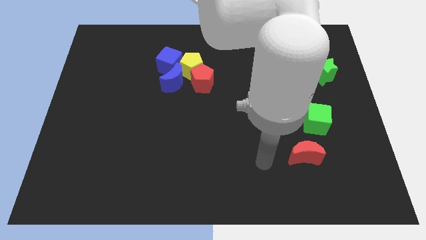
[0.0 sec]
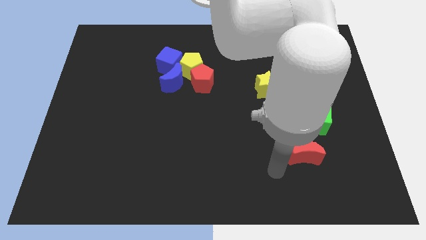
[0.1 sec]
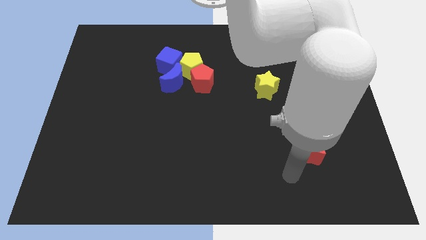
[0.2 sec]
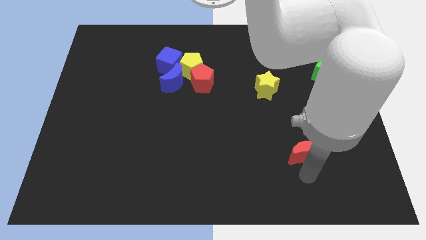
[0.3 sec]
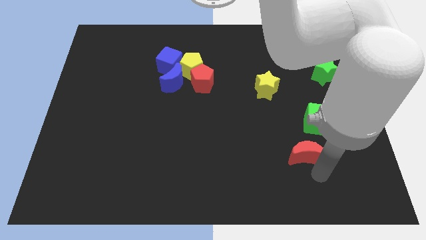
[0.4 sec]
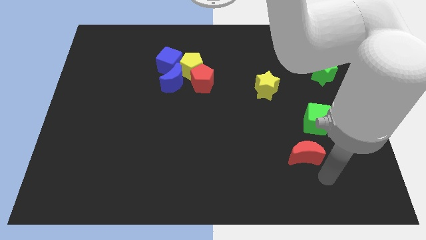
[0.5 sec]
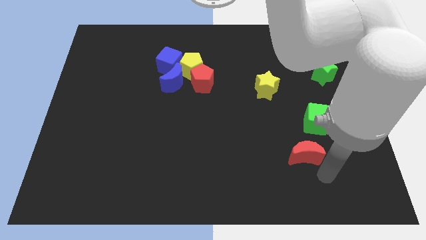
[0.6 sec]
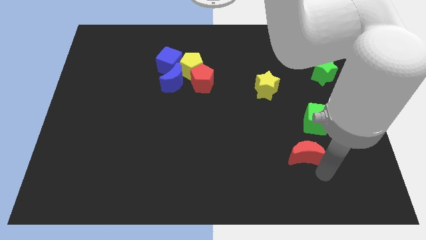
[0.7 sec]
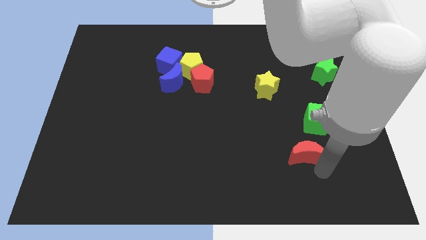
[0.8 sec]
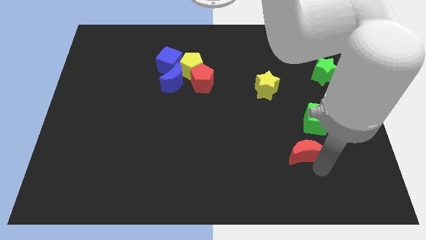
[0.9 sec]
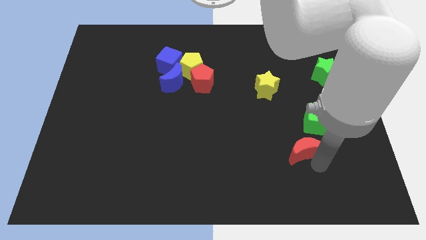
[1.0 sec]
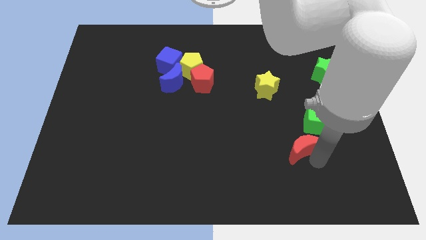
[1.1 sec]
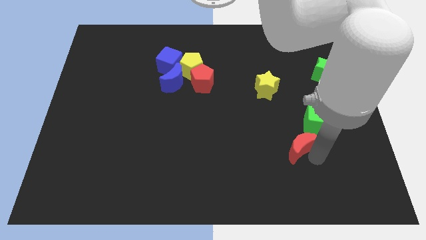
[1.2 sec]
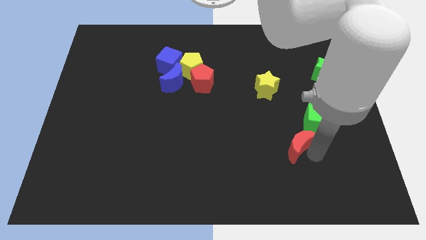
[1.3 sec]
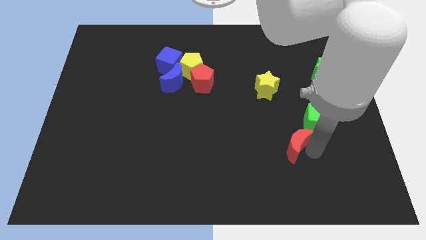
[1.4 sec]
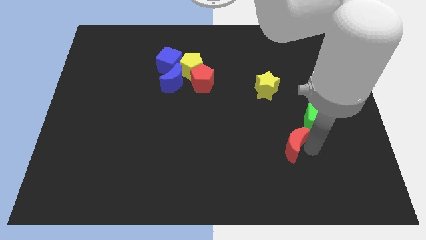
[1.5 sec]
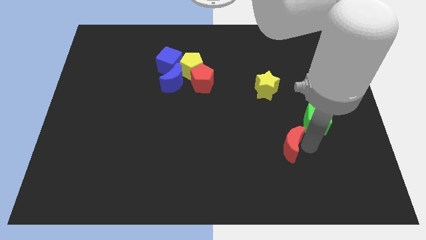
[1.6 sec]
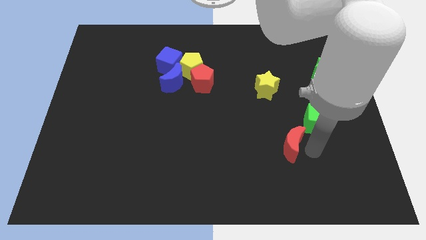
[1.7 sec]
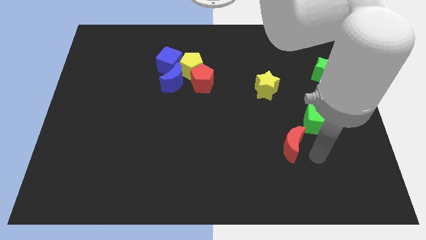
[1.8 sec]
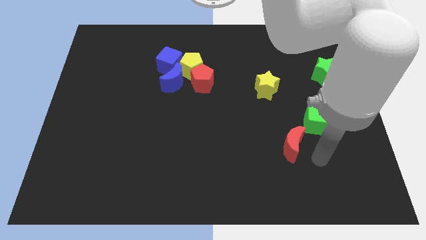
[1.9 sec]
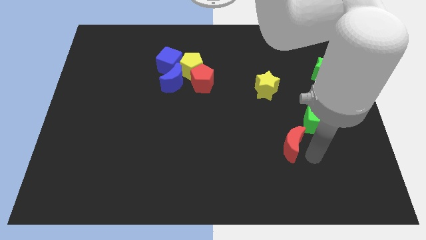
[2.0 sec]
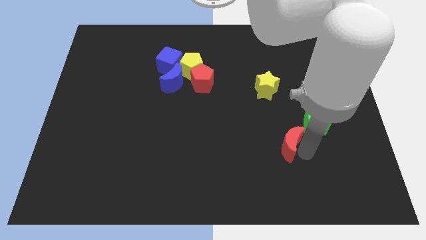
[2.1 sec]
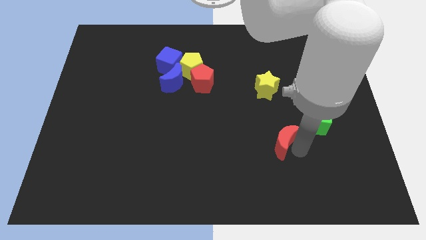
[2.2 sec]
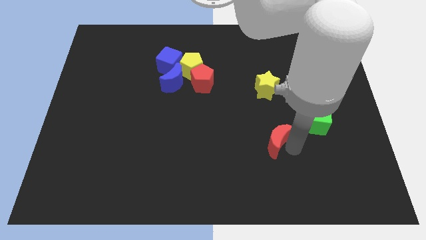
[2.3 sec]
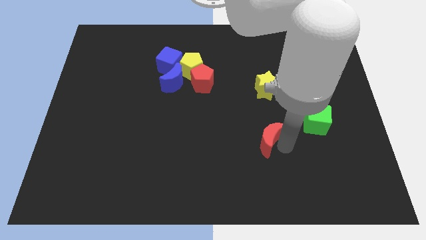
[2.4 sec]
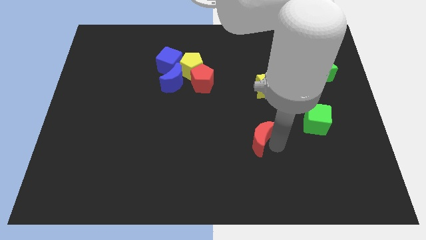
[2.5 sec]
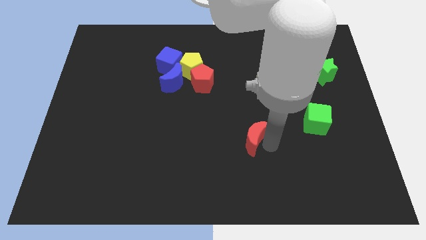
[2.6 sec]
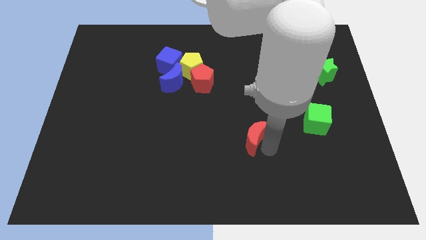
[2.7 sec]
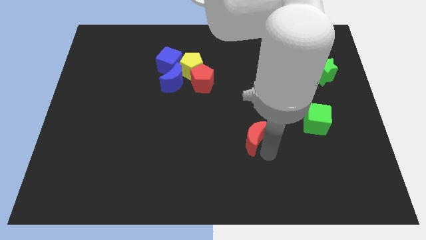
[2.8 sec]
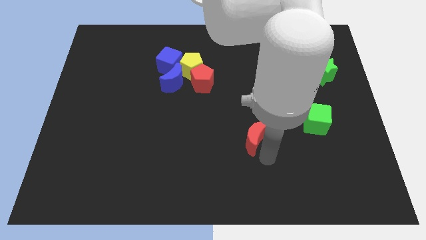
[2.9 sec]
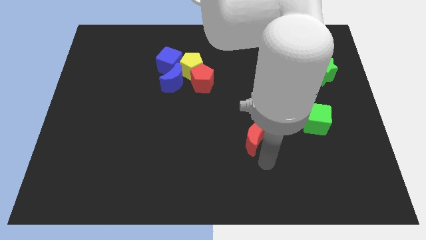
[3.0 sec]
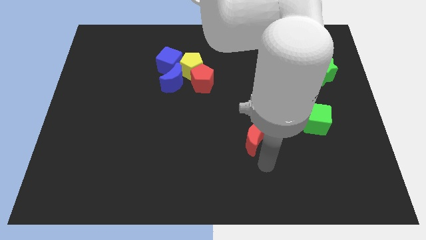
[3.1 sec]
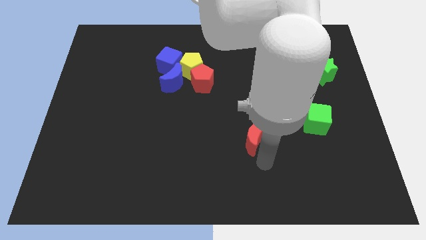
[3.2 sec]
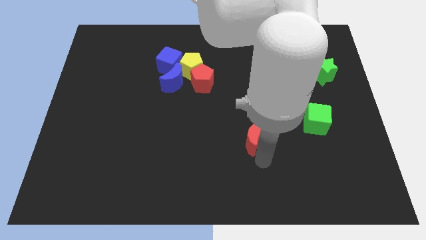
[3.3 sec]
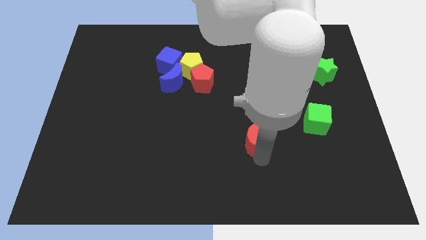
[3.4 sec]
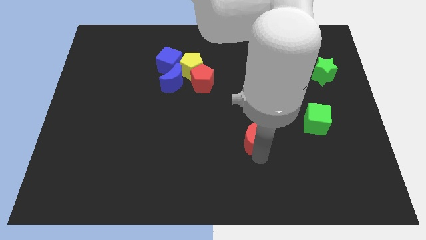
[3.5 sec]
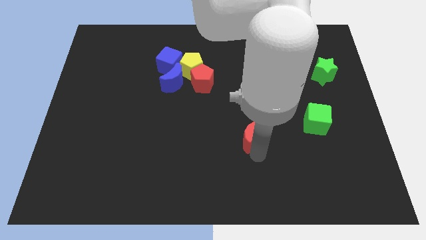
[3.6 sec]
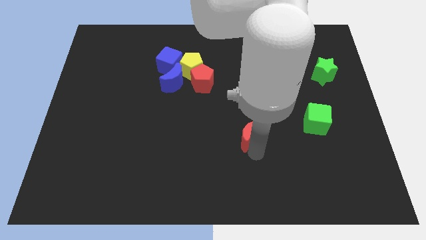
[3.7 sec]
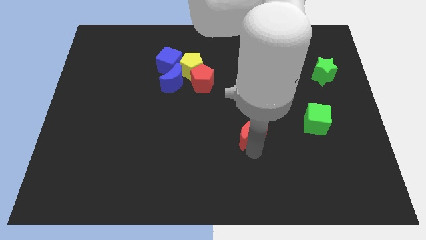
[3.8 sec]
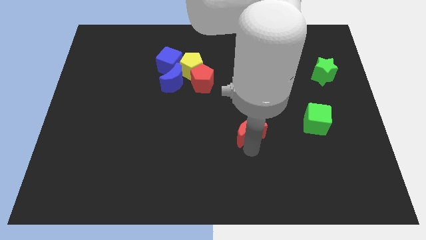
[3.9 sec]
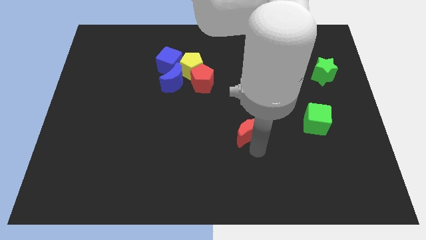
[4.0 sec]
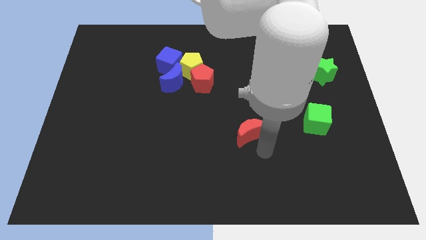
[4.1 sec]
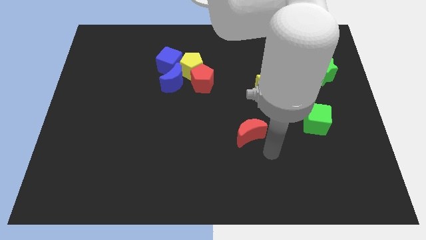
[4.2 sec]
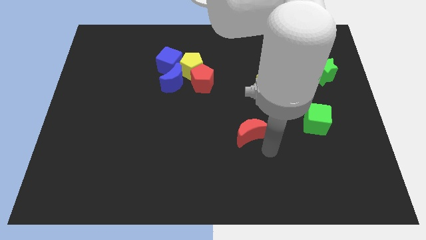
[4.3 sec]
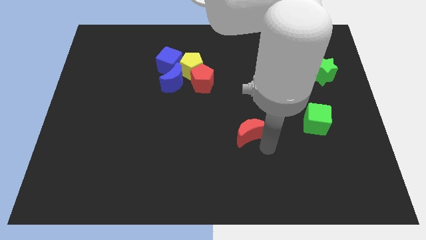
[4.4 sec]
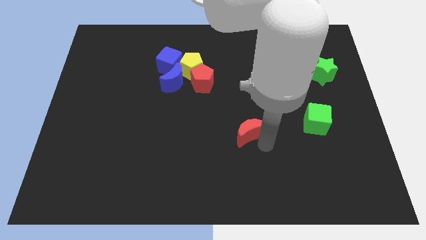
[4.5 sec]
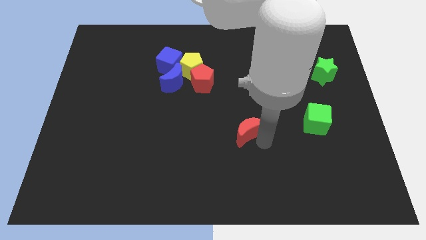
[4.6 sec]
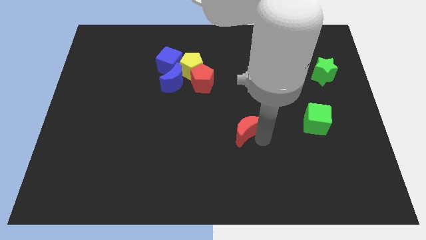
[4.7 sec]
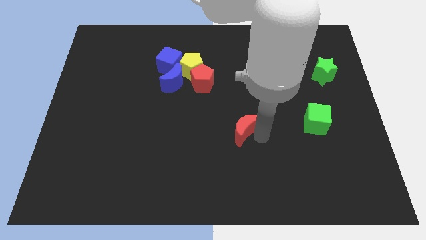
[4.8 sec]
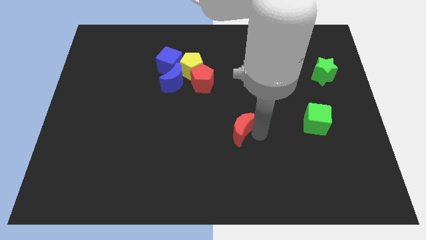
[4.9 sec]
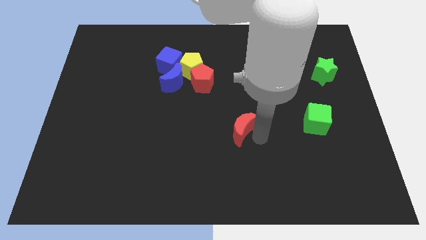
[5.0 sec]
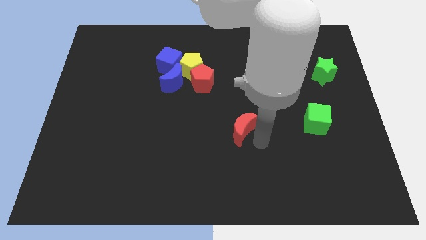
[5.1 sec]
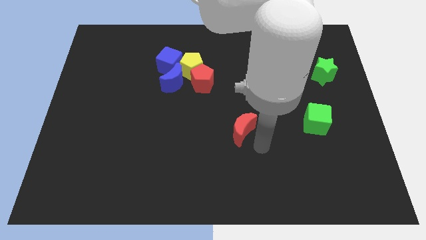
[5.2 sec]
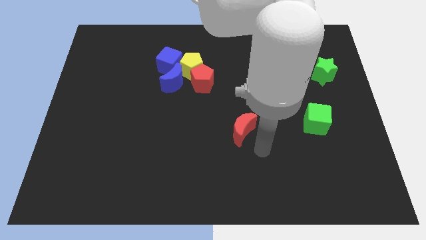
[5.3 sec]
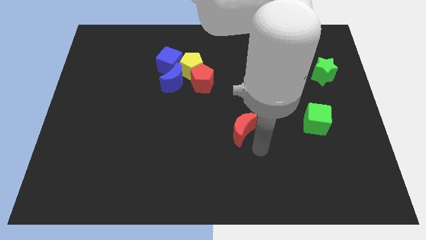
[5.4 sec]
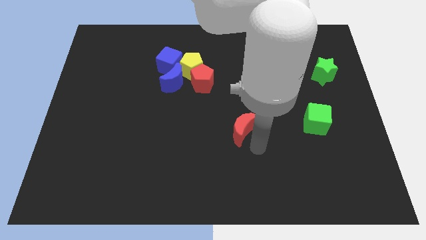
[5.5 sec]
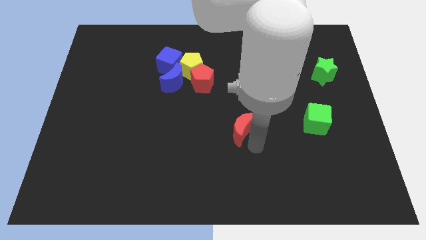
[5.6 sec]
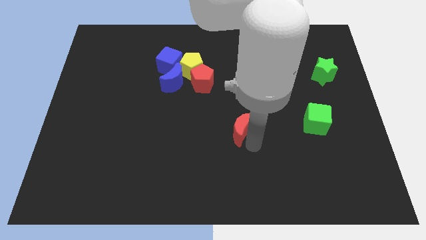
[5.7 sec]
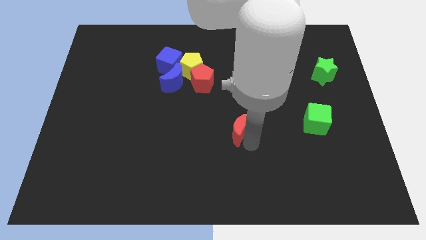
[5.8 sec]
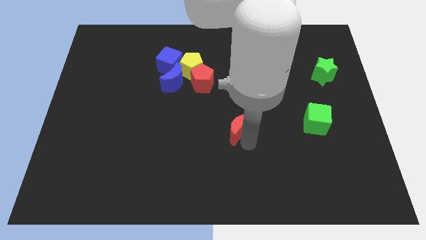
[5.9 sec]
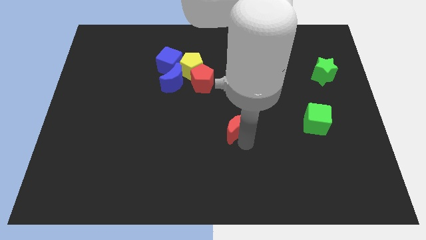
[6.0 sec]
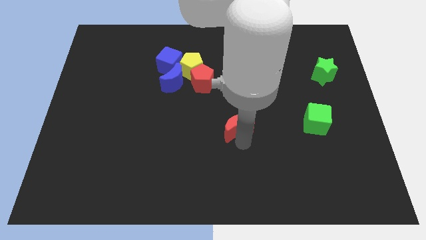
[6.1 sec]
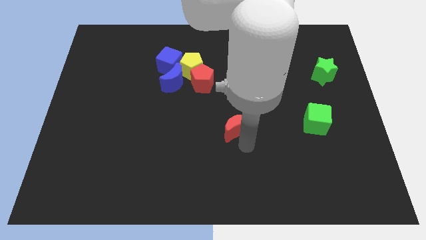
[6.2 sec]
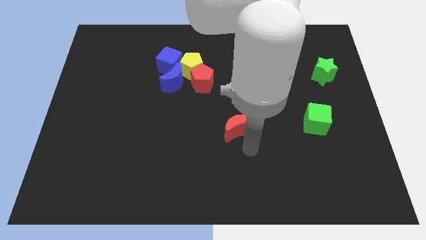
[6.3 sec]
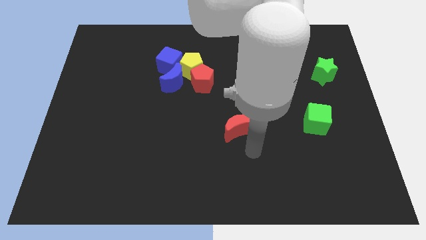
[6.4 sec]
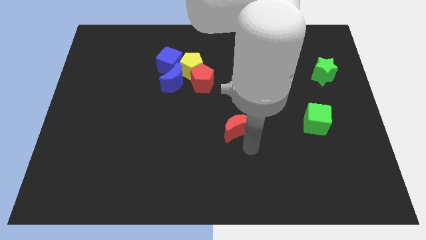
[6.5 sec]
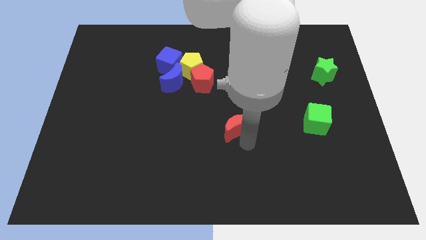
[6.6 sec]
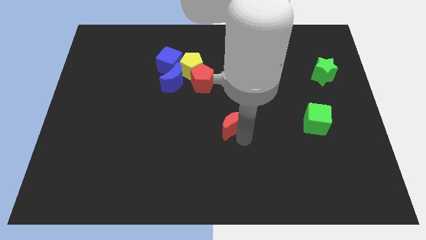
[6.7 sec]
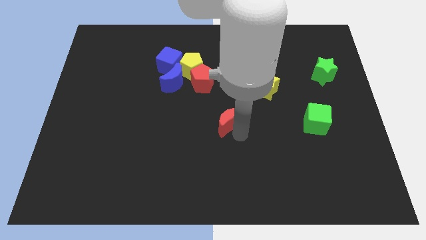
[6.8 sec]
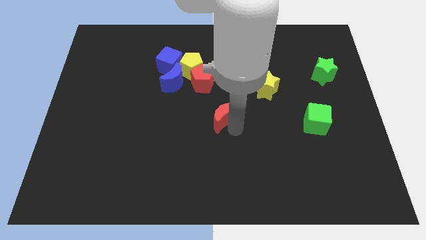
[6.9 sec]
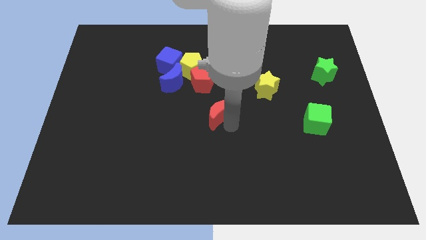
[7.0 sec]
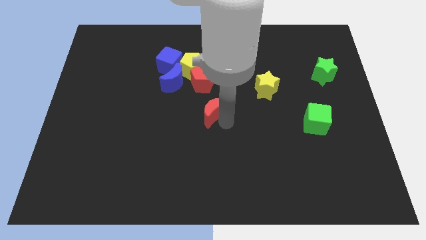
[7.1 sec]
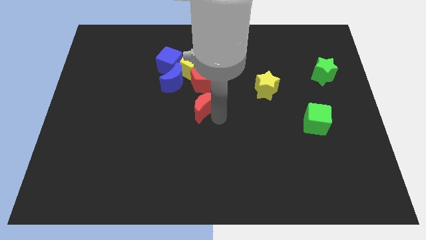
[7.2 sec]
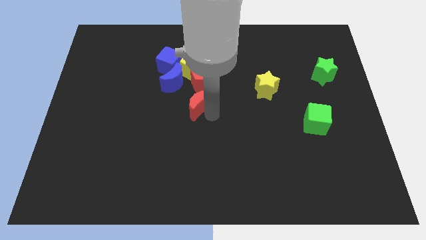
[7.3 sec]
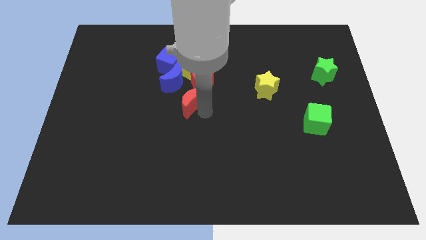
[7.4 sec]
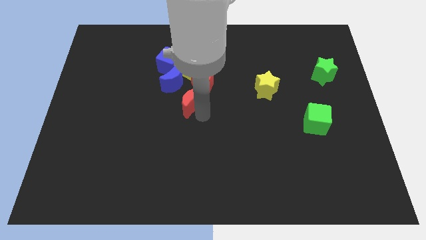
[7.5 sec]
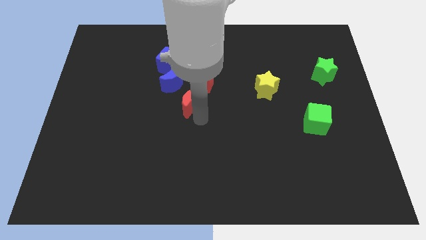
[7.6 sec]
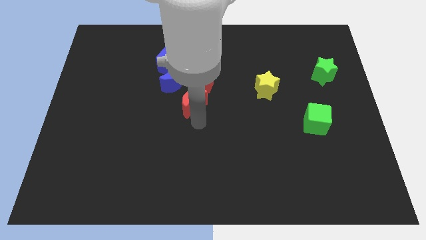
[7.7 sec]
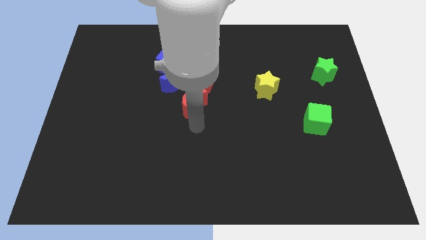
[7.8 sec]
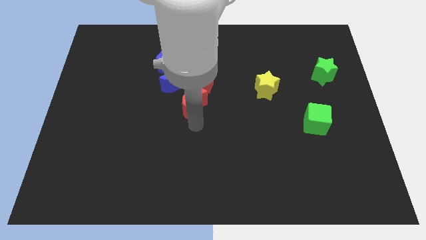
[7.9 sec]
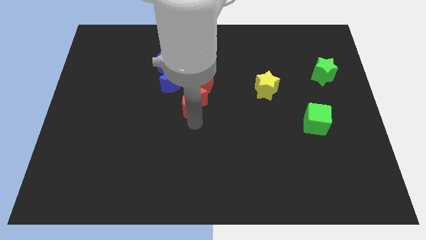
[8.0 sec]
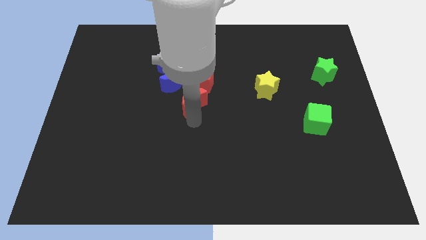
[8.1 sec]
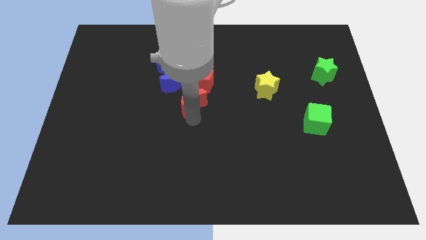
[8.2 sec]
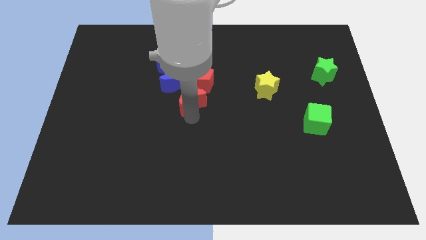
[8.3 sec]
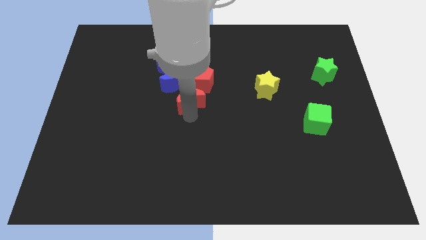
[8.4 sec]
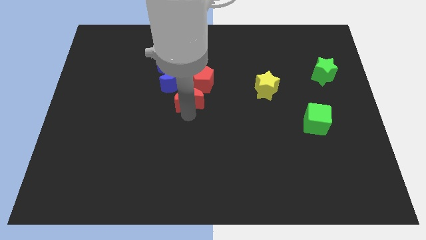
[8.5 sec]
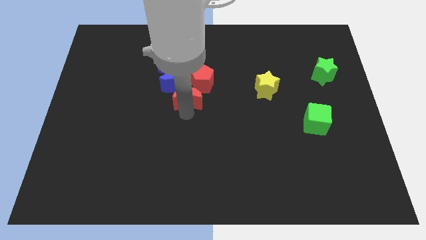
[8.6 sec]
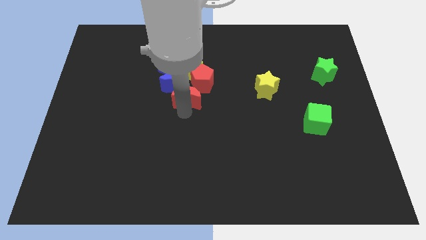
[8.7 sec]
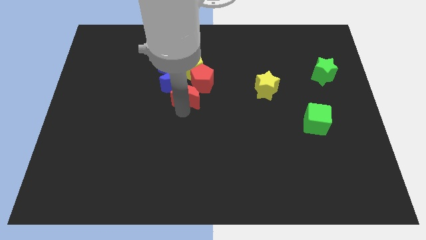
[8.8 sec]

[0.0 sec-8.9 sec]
slide the red moon to the blue moon
